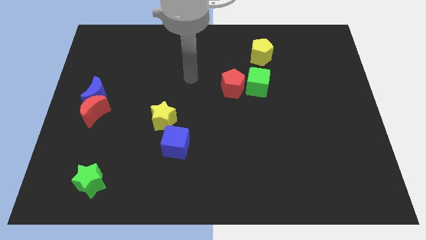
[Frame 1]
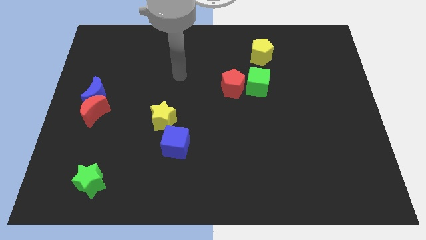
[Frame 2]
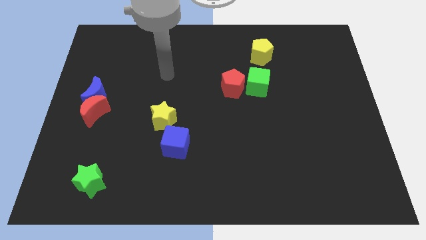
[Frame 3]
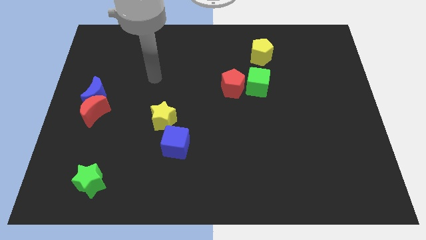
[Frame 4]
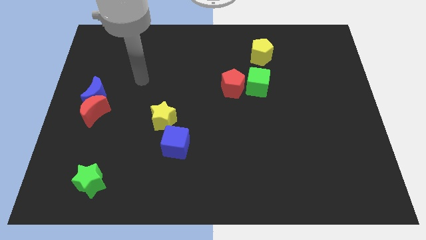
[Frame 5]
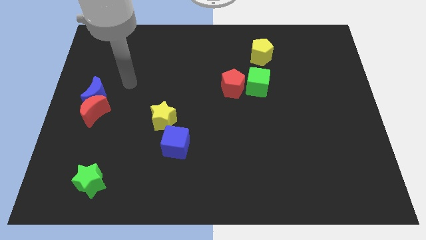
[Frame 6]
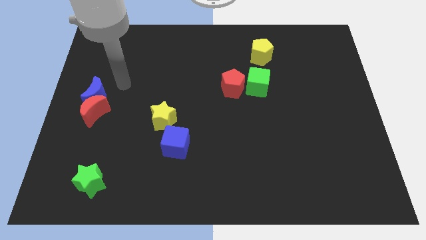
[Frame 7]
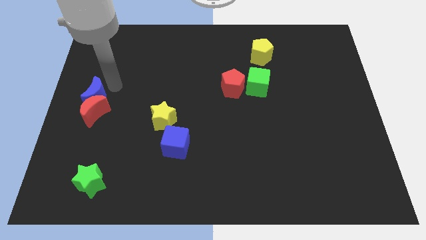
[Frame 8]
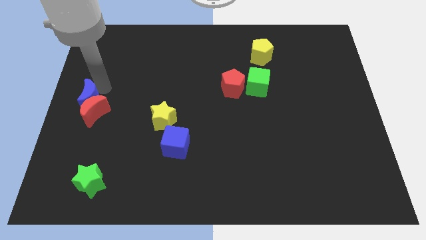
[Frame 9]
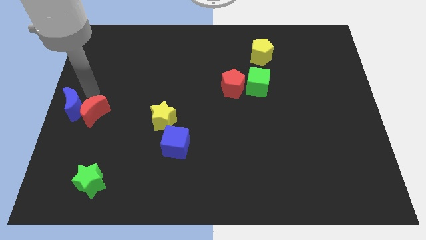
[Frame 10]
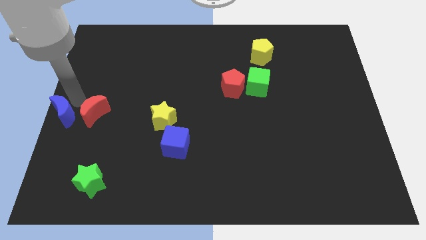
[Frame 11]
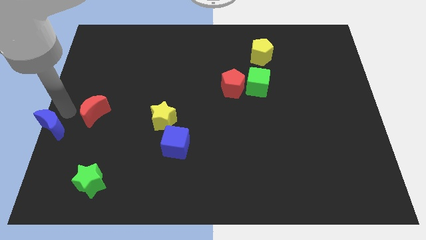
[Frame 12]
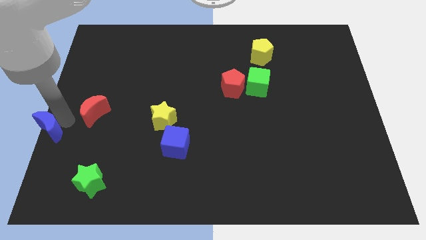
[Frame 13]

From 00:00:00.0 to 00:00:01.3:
separate the red moon from the blue moon

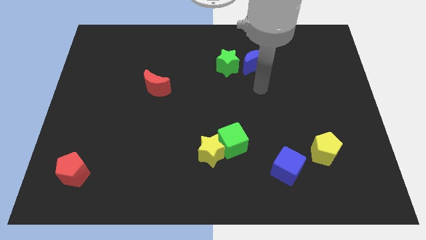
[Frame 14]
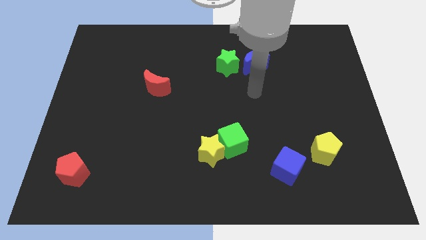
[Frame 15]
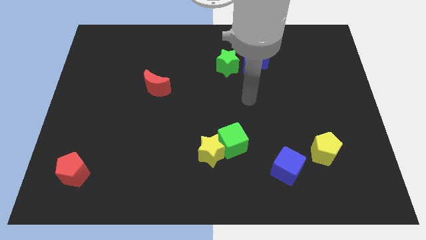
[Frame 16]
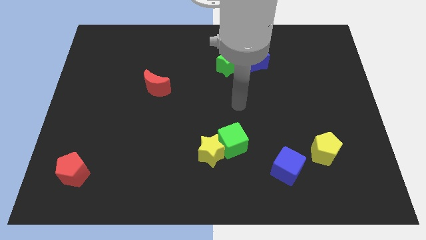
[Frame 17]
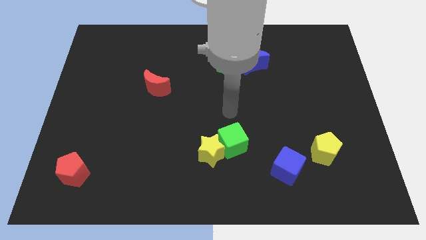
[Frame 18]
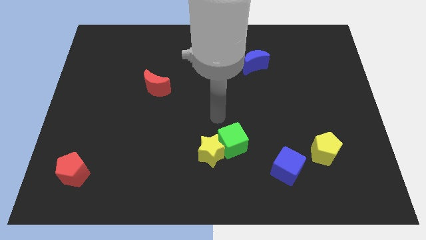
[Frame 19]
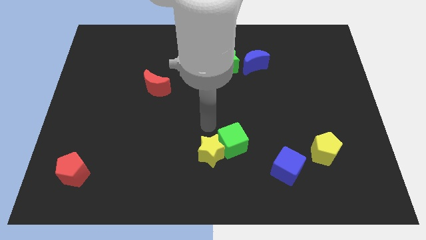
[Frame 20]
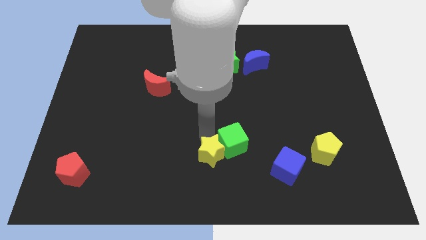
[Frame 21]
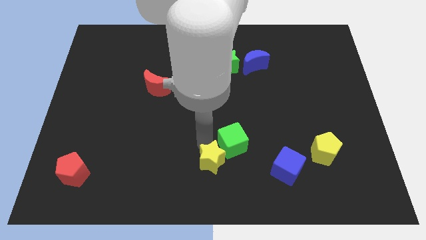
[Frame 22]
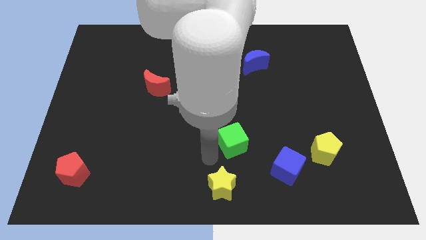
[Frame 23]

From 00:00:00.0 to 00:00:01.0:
pull the green cube apart from the yellow star

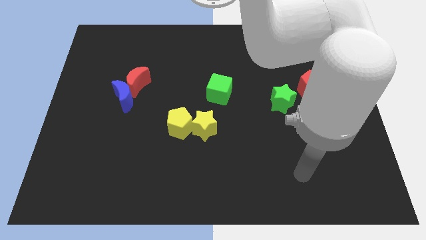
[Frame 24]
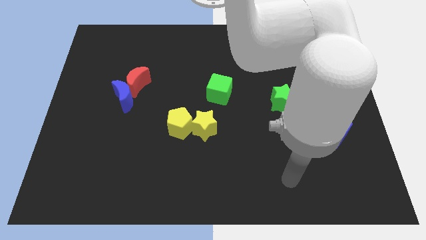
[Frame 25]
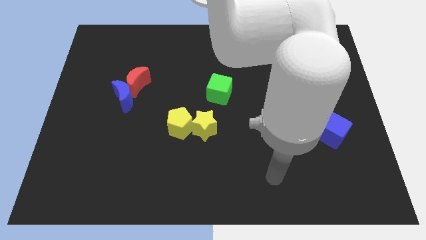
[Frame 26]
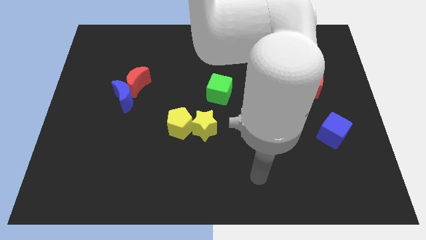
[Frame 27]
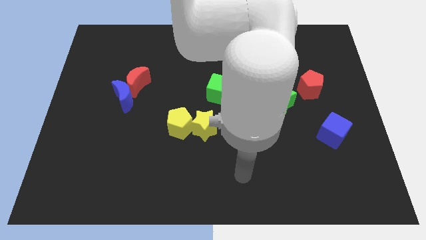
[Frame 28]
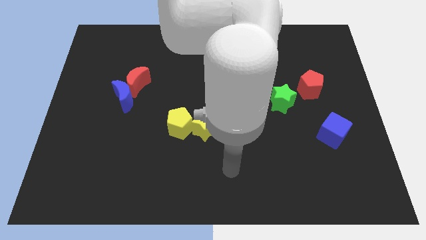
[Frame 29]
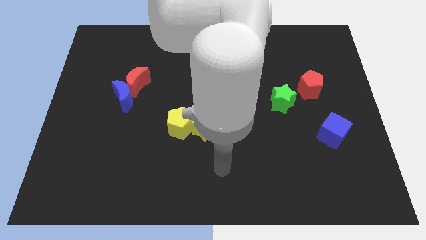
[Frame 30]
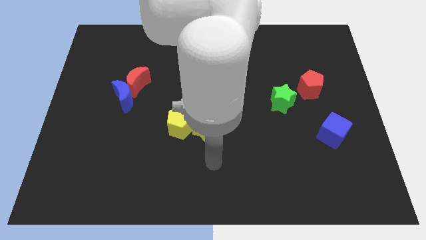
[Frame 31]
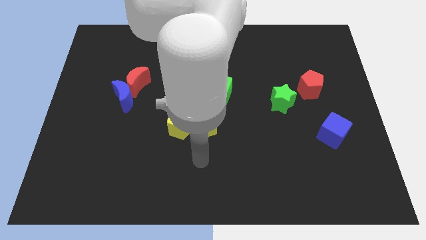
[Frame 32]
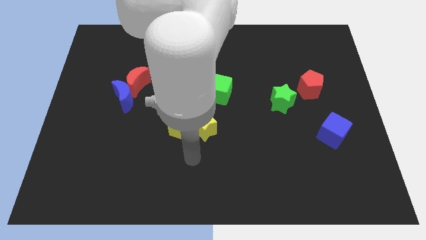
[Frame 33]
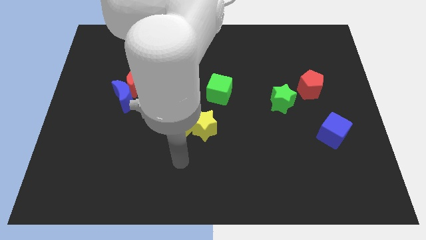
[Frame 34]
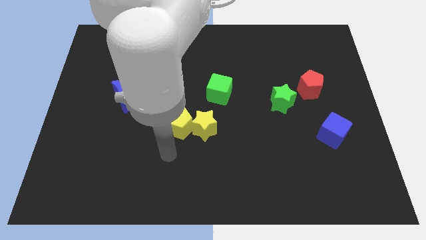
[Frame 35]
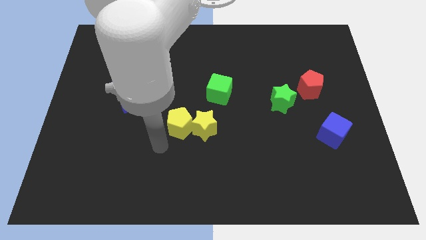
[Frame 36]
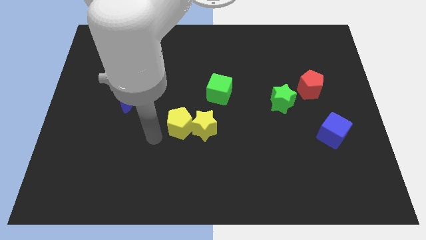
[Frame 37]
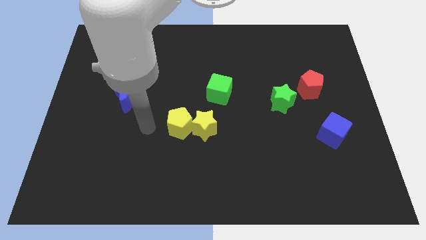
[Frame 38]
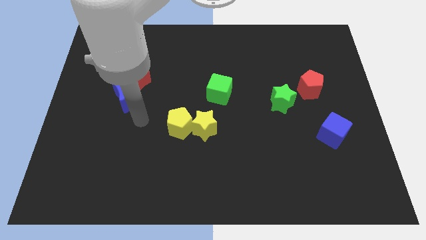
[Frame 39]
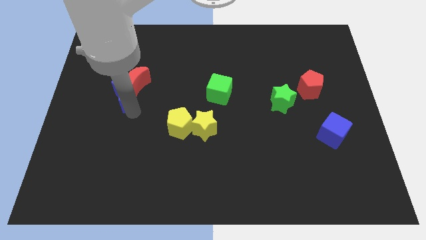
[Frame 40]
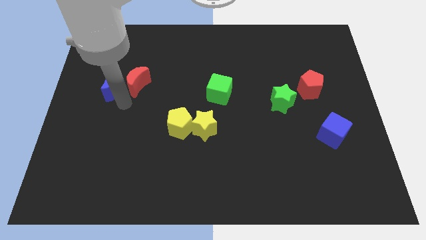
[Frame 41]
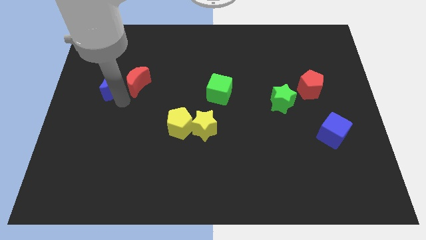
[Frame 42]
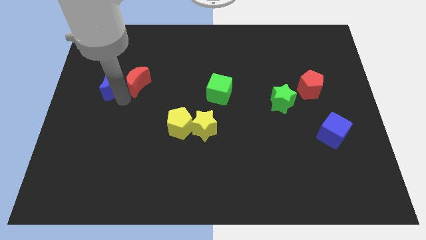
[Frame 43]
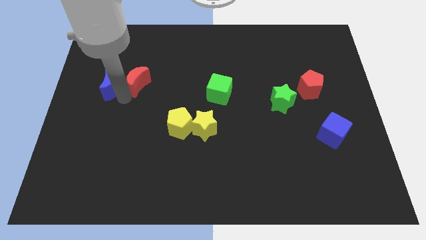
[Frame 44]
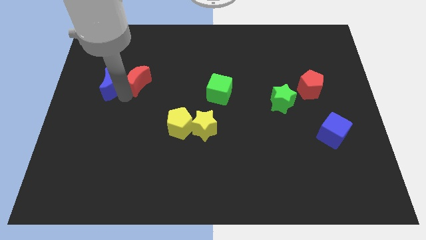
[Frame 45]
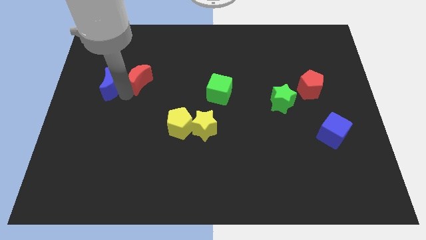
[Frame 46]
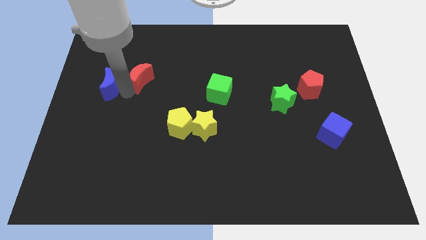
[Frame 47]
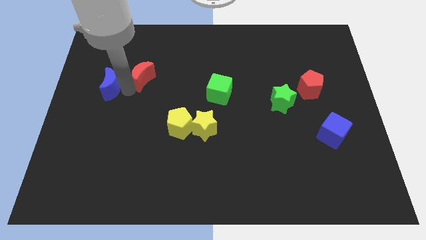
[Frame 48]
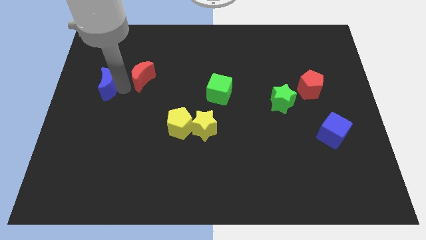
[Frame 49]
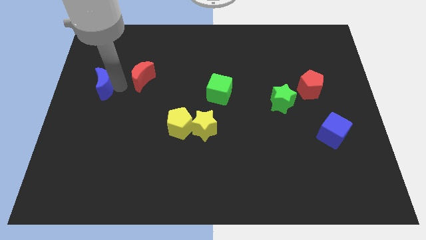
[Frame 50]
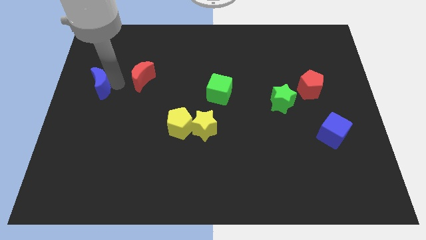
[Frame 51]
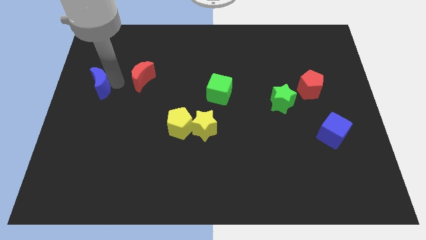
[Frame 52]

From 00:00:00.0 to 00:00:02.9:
pull the red moon apart from the blue moon

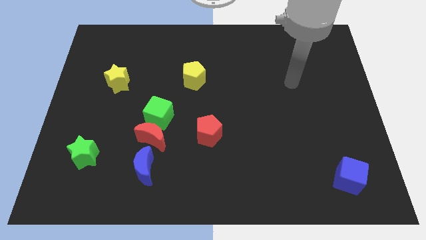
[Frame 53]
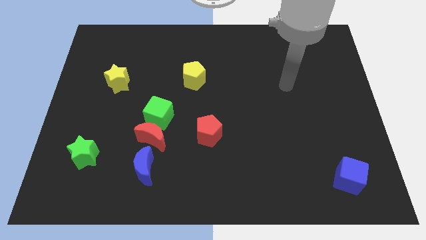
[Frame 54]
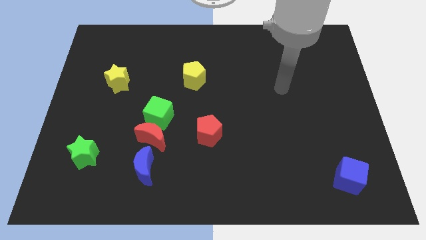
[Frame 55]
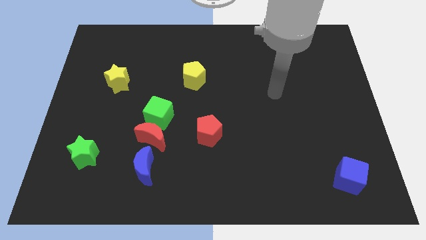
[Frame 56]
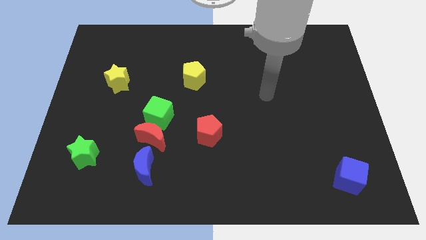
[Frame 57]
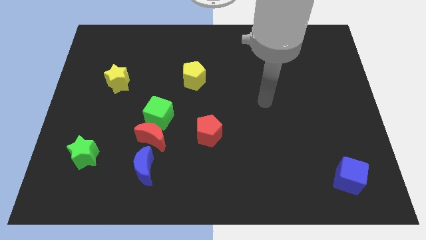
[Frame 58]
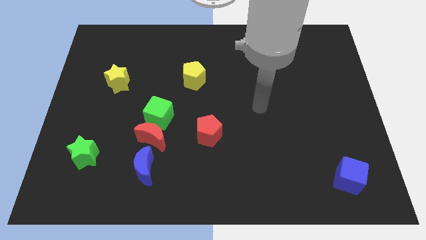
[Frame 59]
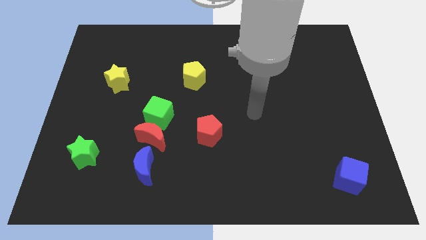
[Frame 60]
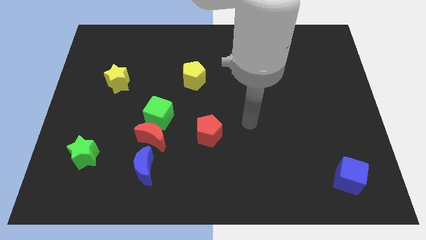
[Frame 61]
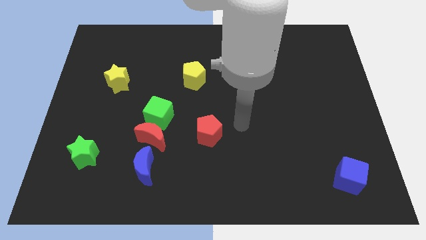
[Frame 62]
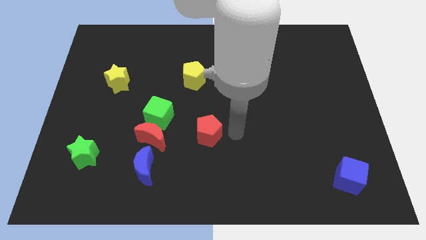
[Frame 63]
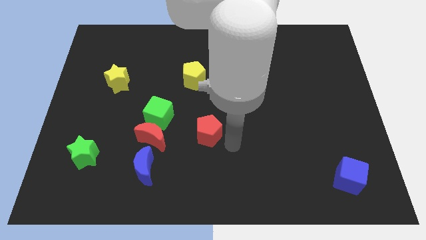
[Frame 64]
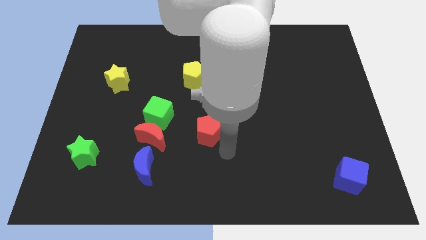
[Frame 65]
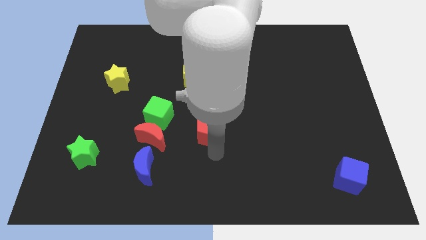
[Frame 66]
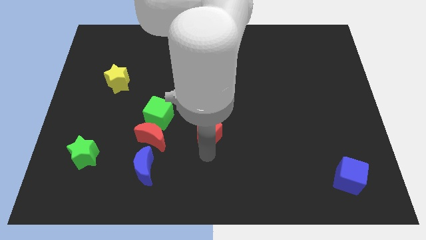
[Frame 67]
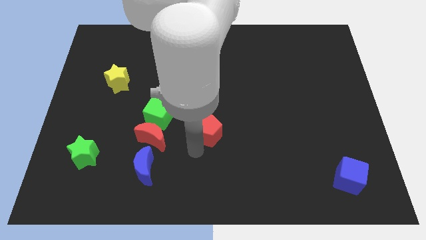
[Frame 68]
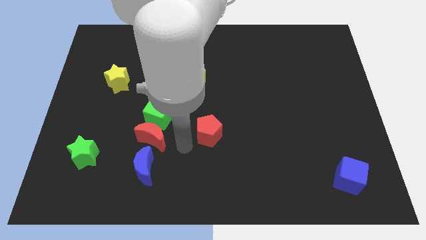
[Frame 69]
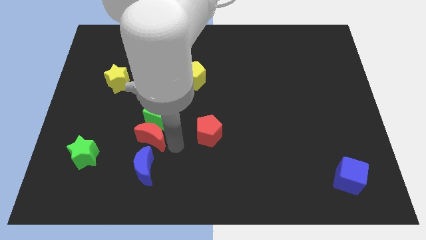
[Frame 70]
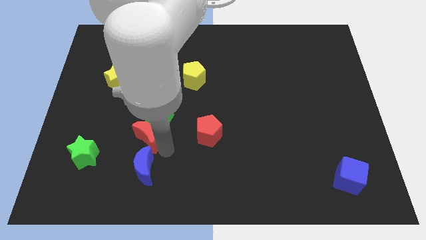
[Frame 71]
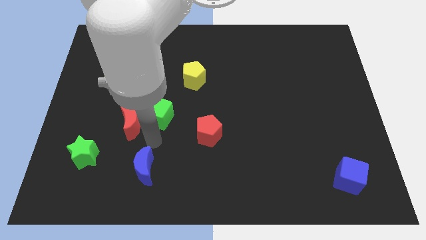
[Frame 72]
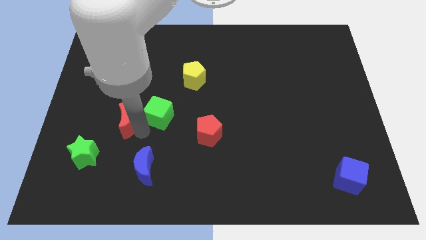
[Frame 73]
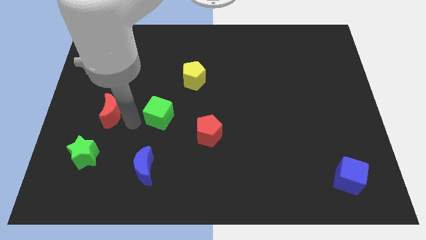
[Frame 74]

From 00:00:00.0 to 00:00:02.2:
pull the green cube apart from the red moon

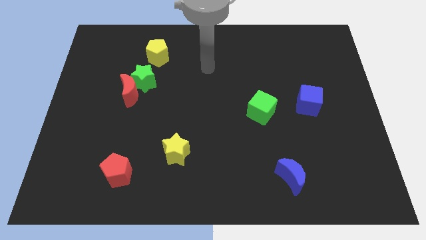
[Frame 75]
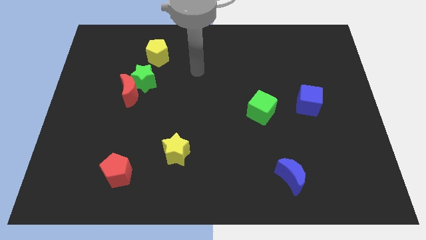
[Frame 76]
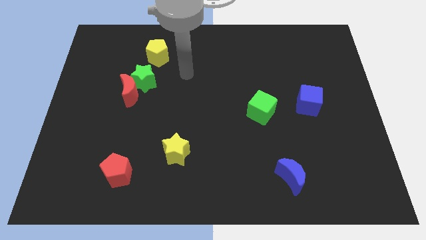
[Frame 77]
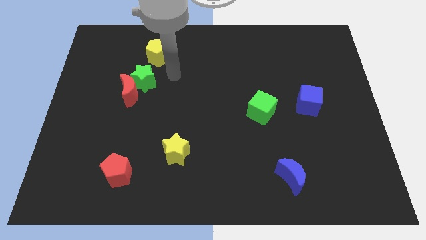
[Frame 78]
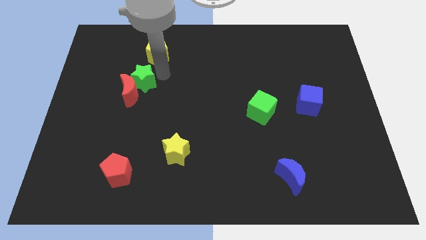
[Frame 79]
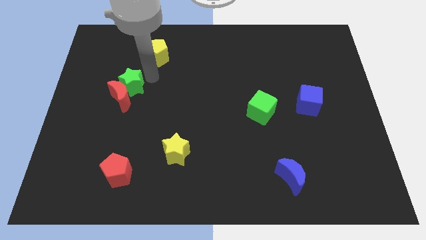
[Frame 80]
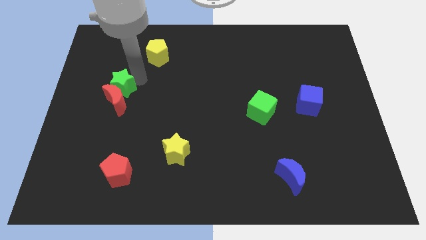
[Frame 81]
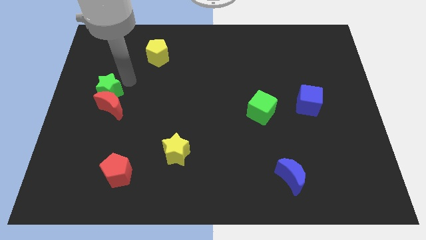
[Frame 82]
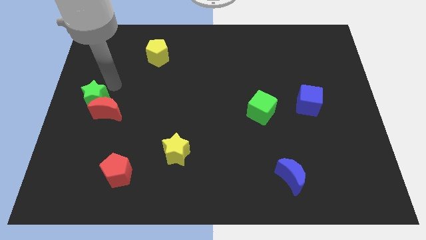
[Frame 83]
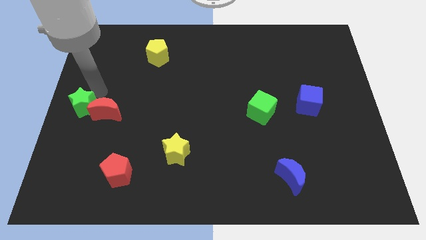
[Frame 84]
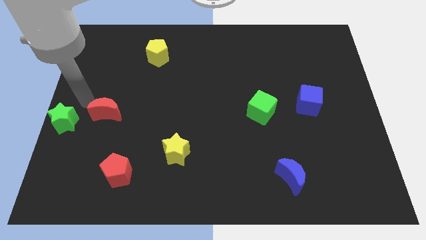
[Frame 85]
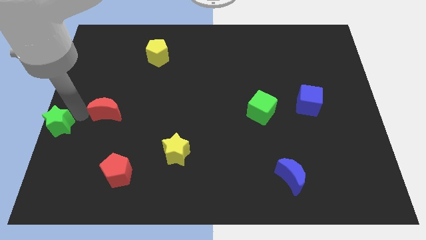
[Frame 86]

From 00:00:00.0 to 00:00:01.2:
pull the red moon apart from the green star

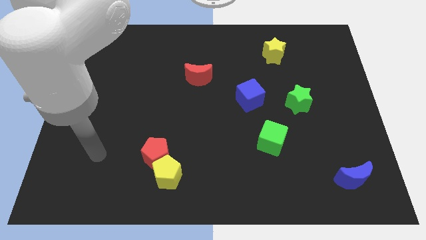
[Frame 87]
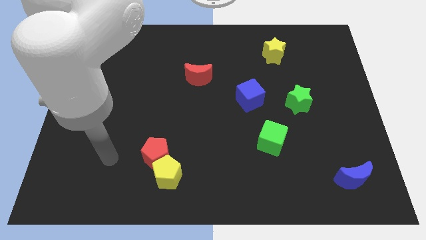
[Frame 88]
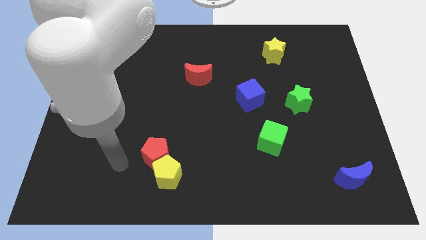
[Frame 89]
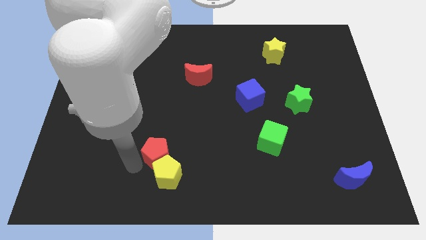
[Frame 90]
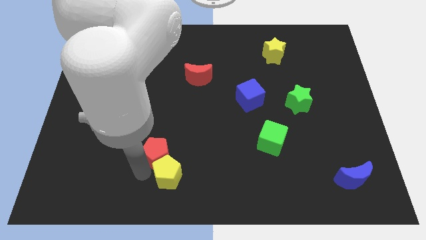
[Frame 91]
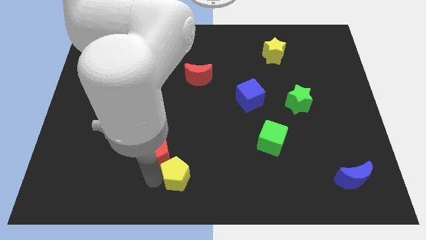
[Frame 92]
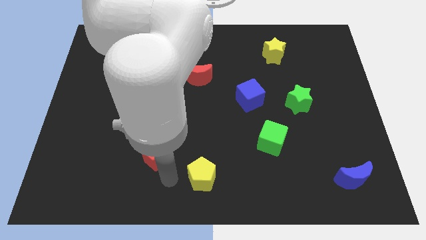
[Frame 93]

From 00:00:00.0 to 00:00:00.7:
move the red pentagon away from the yellow pentagon
